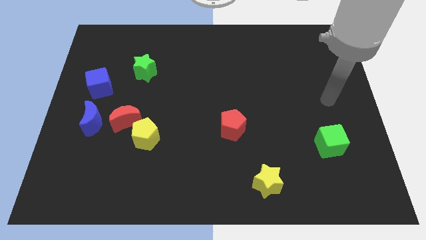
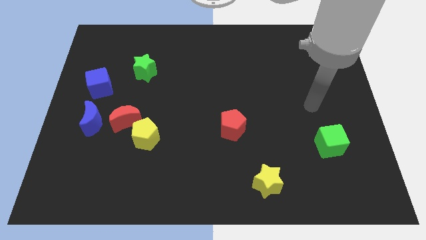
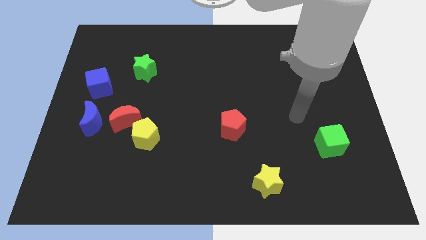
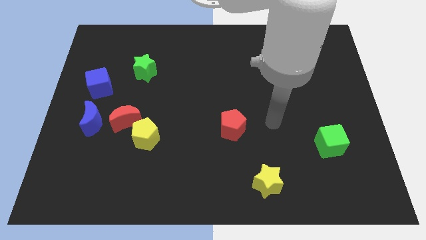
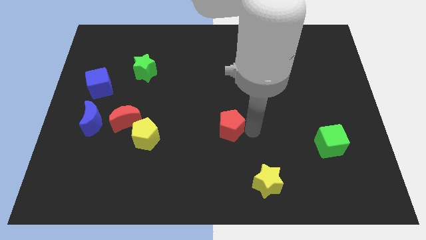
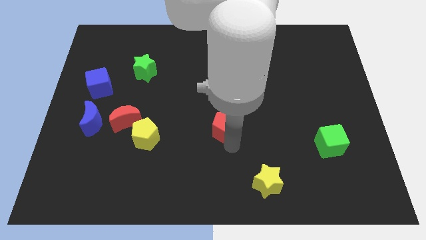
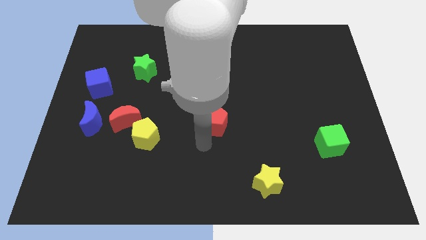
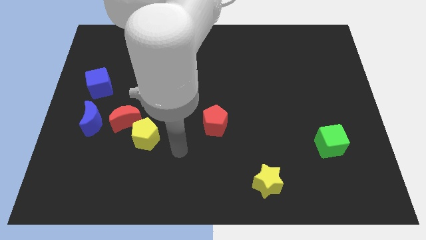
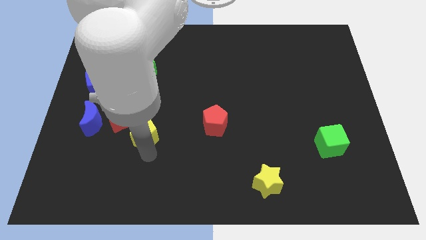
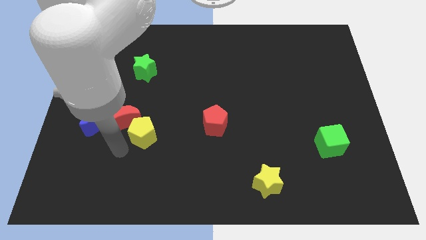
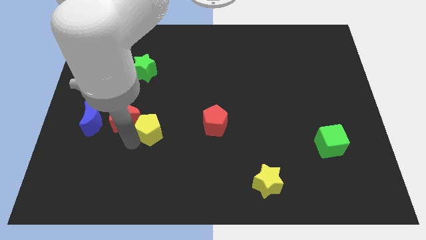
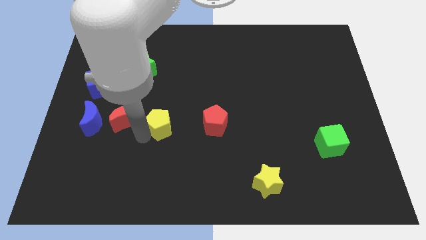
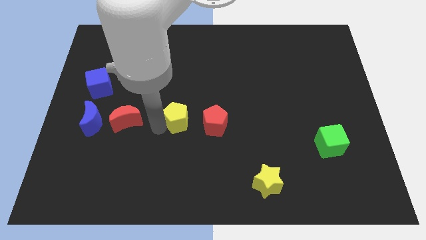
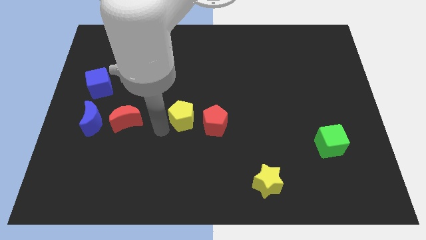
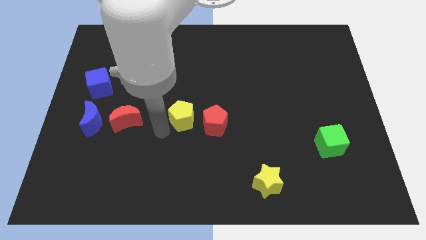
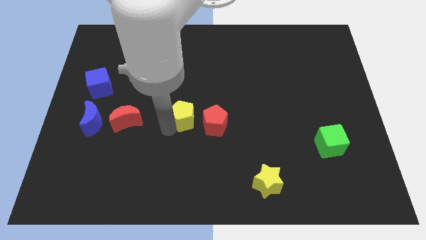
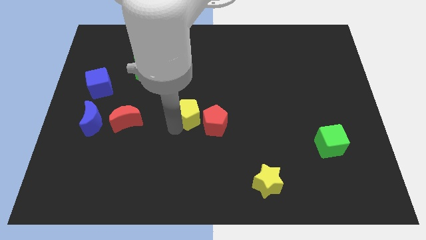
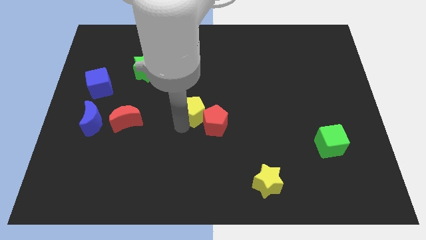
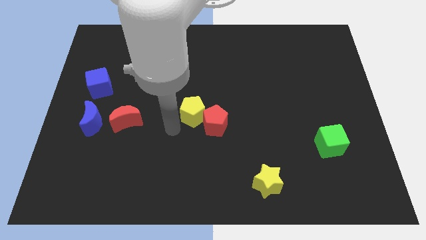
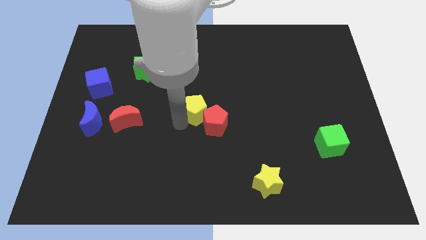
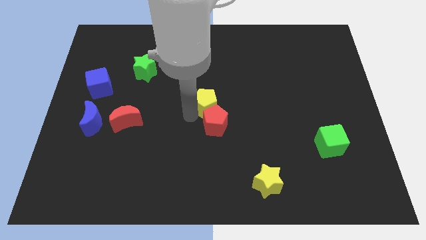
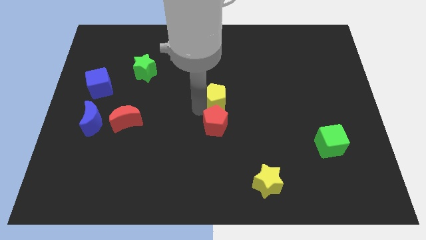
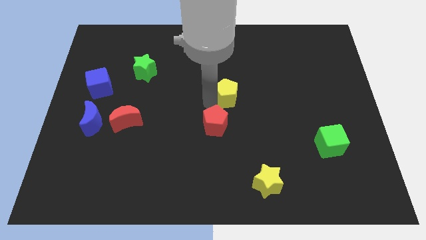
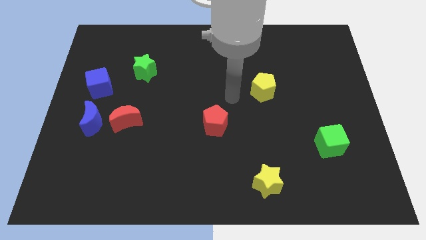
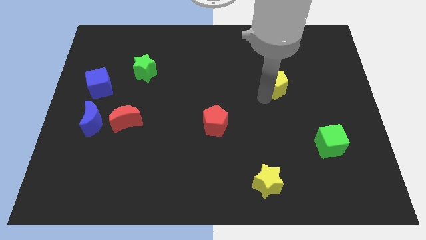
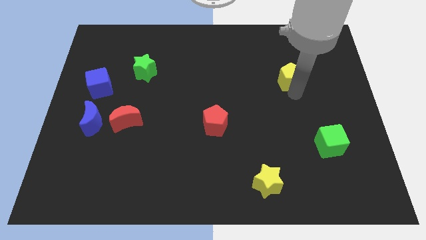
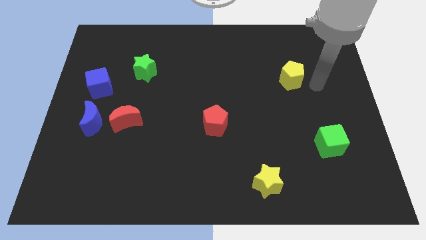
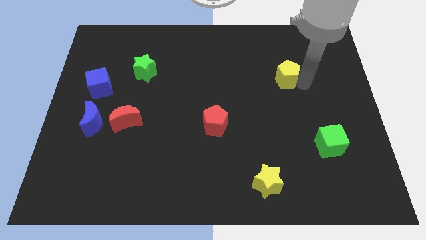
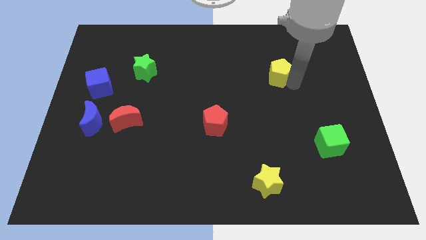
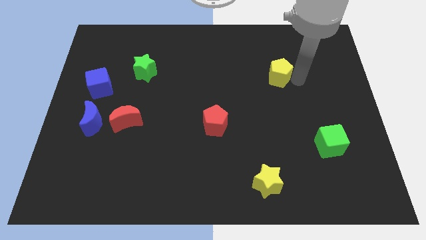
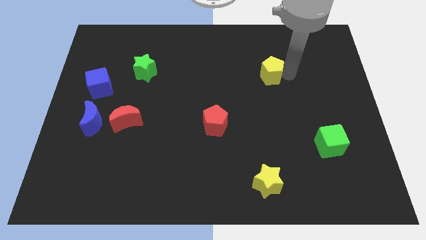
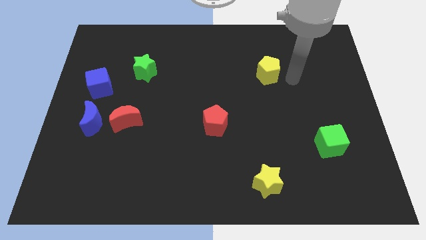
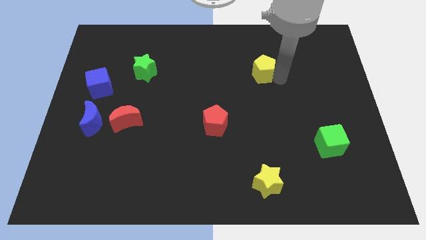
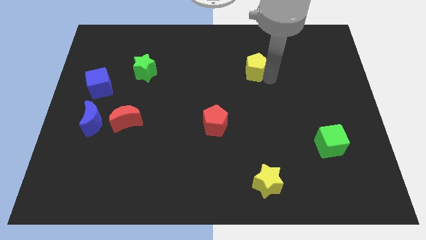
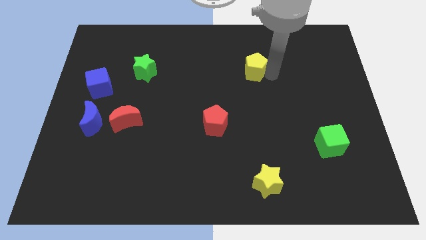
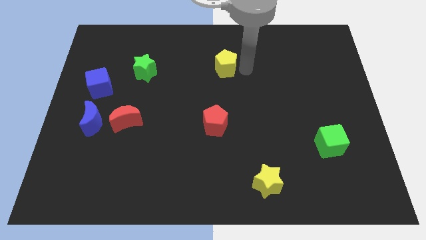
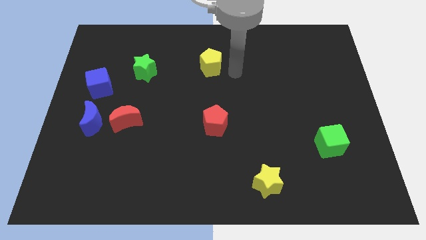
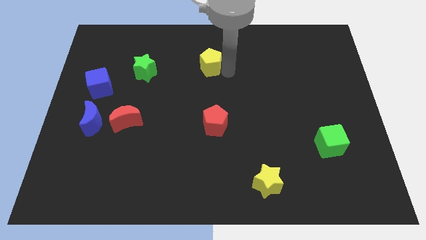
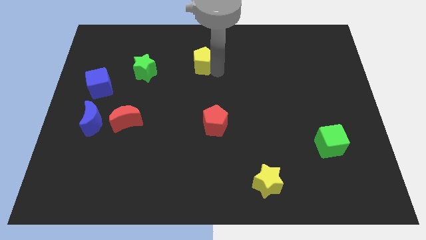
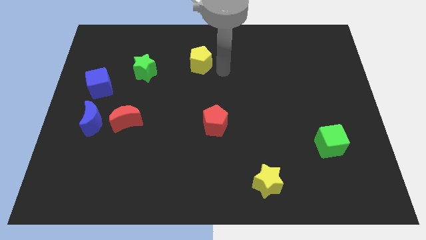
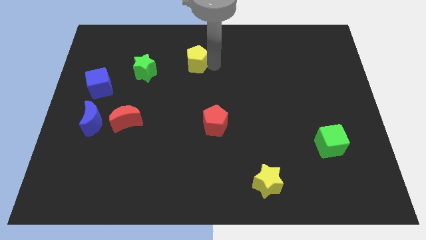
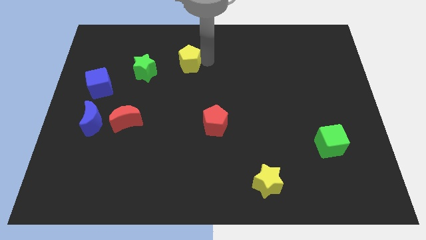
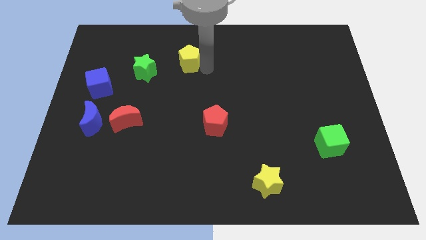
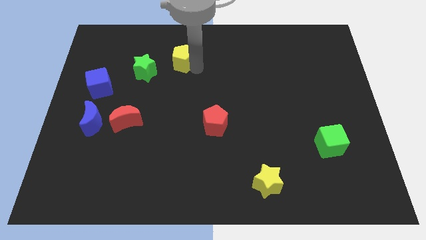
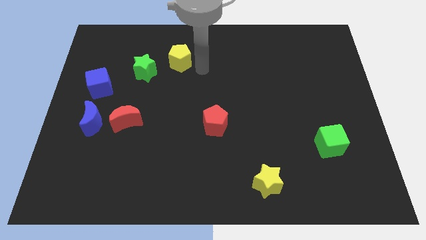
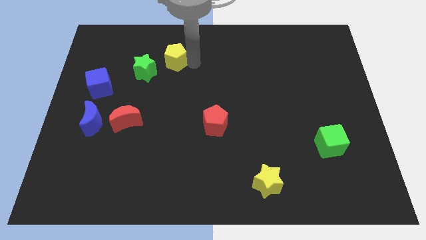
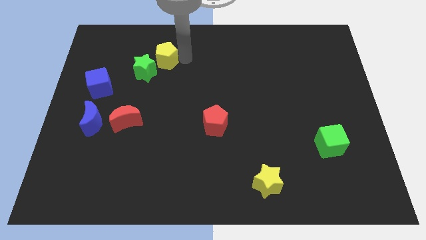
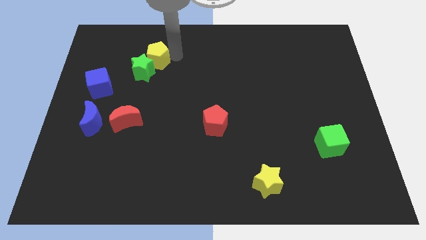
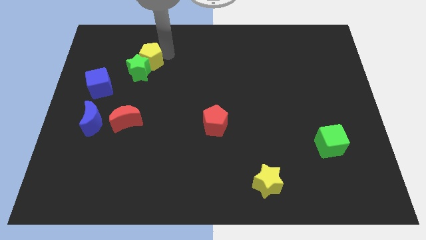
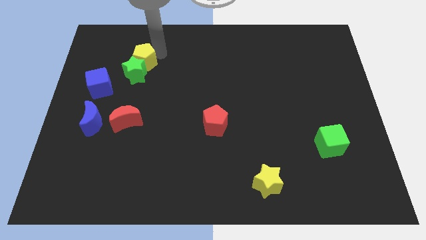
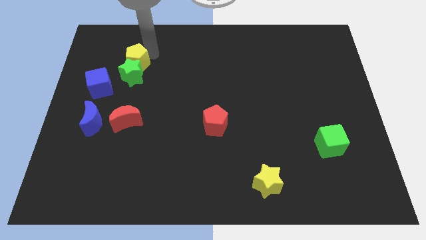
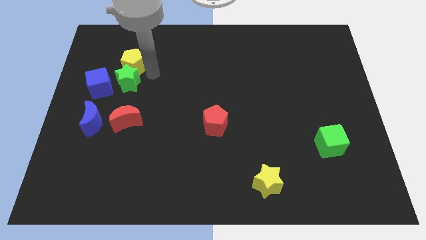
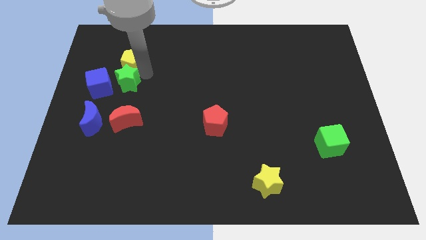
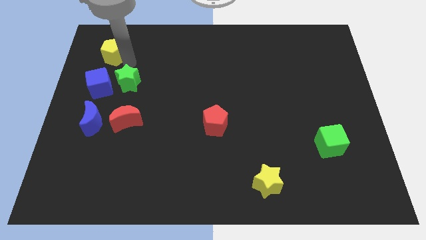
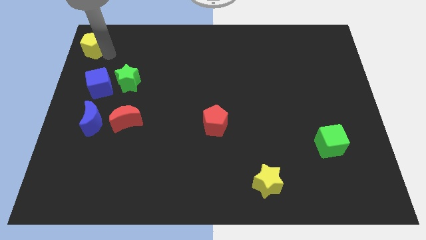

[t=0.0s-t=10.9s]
put the yellow pentagon to the upper left corner

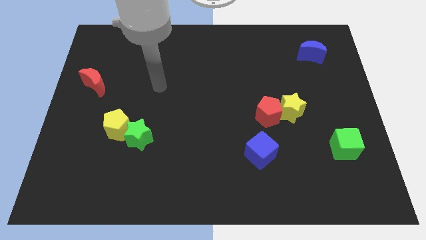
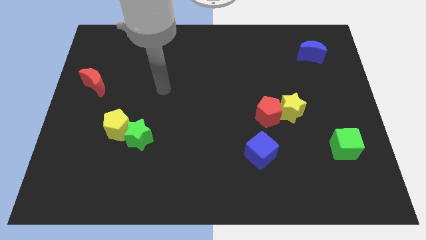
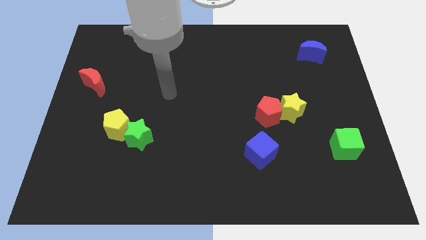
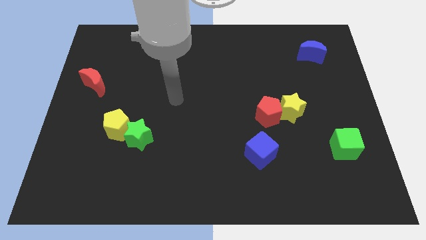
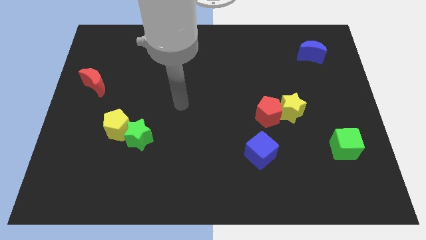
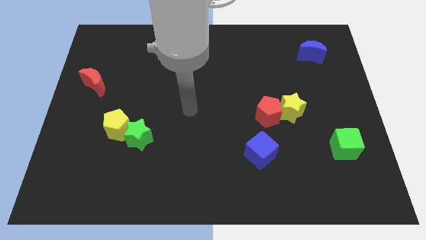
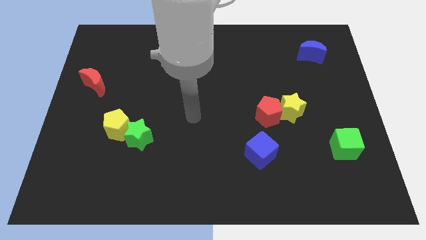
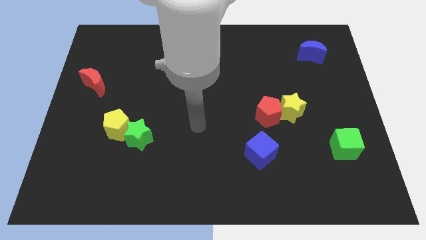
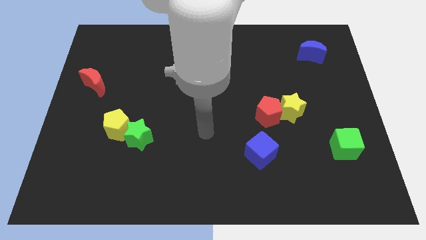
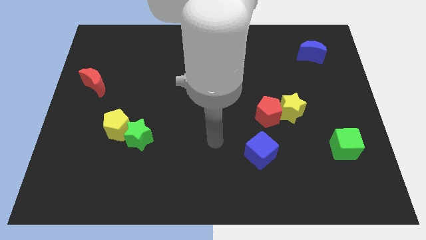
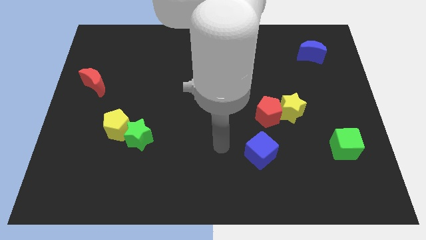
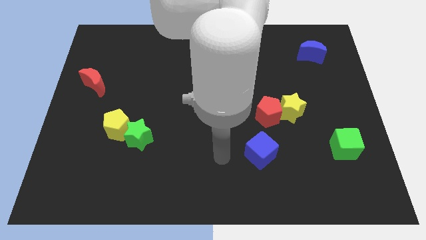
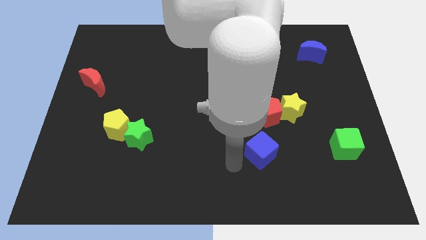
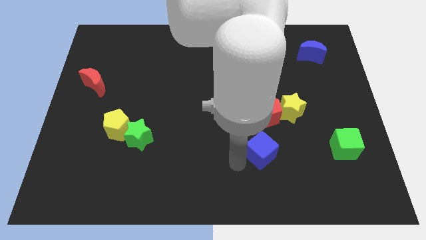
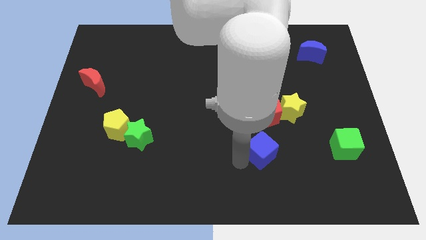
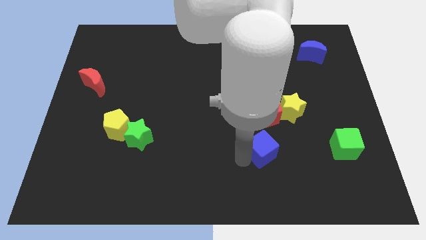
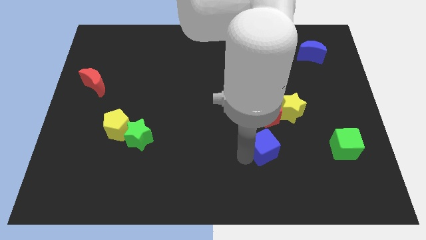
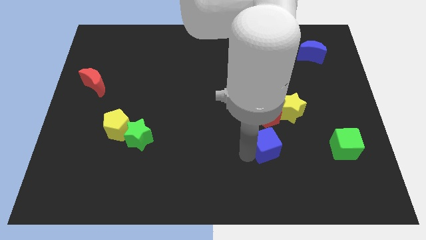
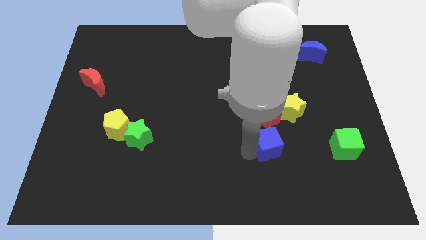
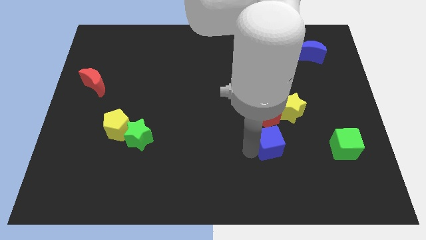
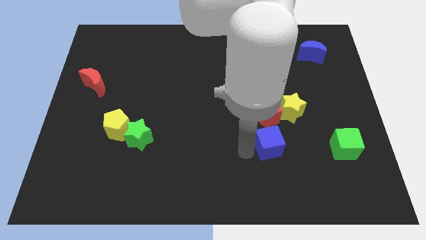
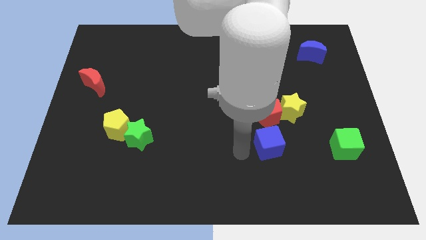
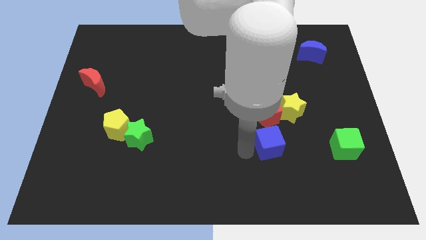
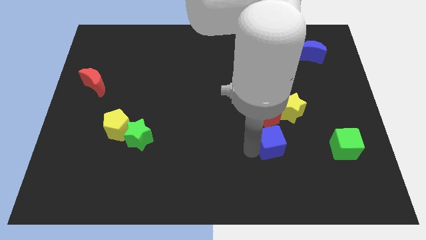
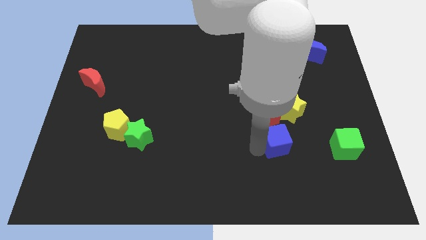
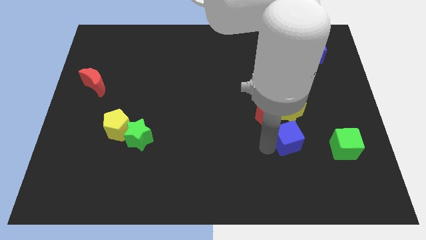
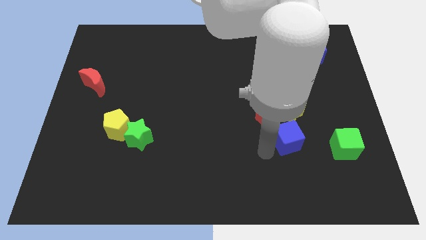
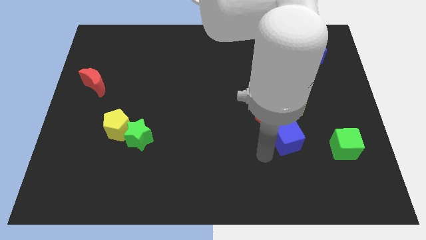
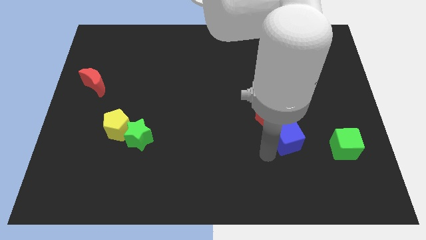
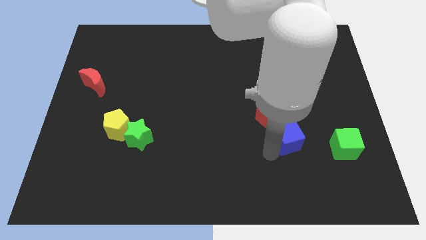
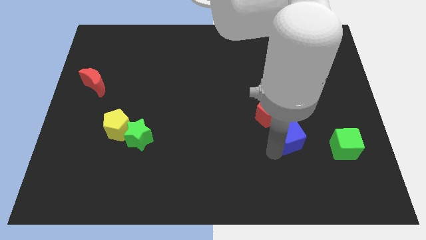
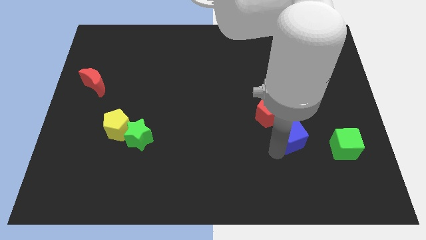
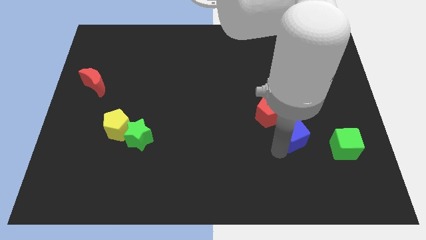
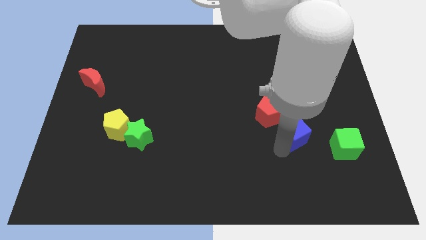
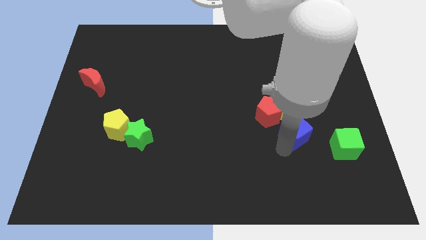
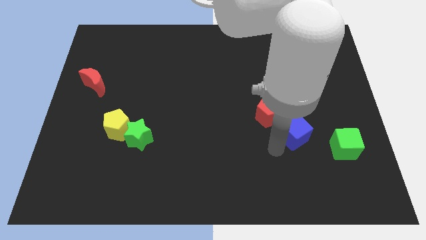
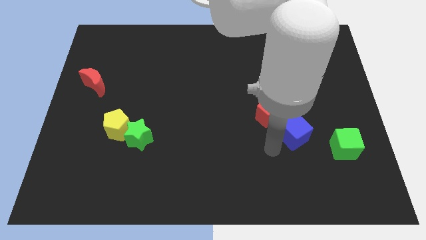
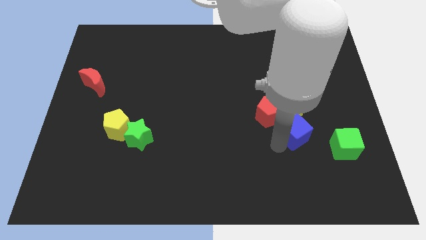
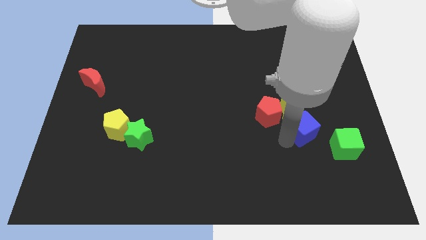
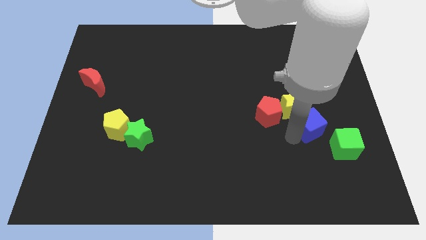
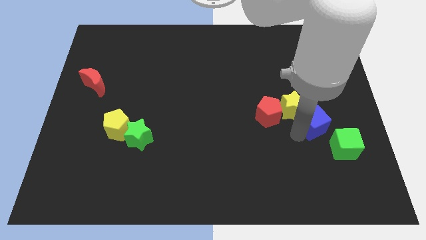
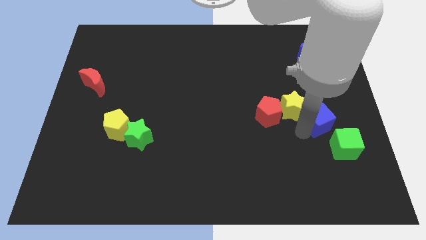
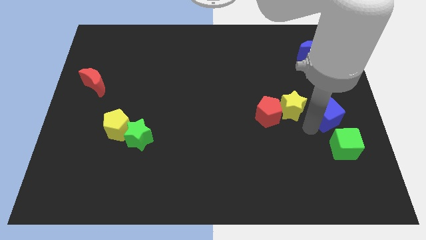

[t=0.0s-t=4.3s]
push the blue cube to the center right
